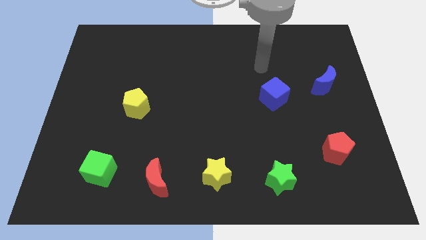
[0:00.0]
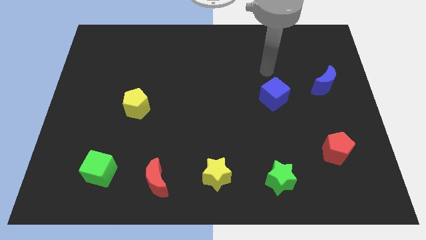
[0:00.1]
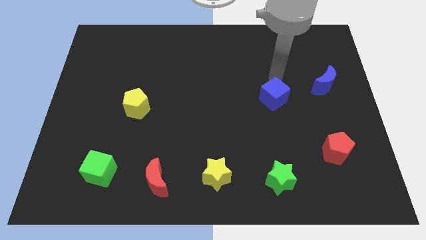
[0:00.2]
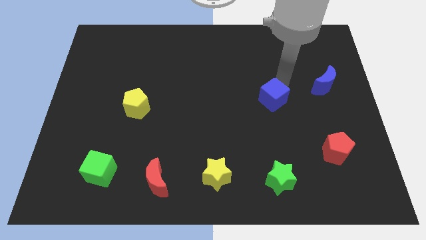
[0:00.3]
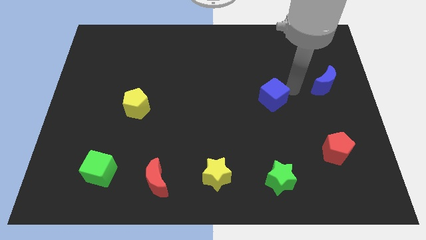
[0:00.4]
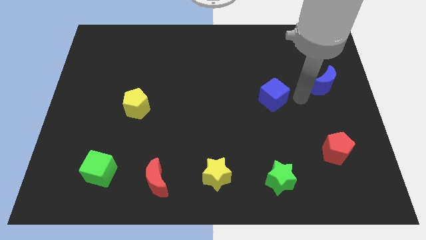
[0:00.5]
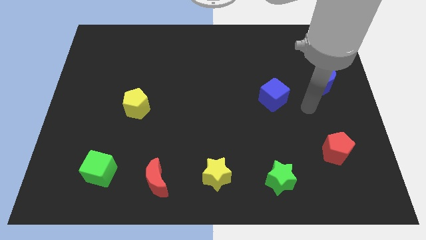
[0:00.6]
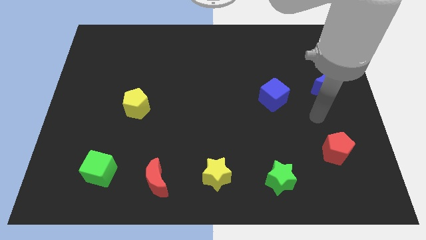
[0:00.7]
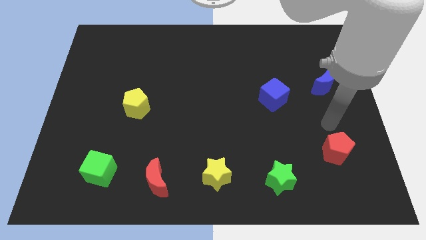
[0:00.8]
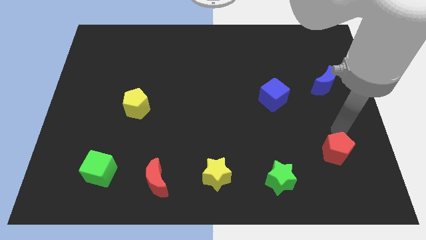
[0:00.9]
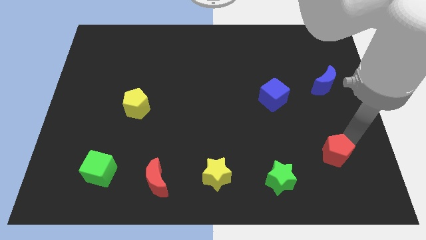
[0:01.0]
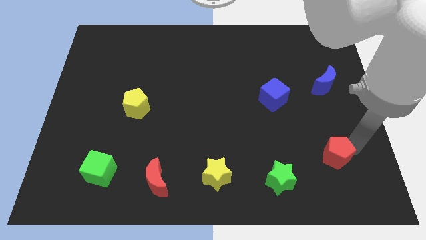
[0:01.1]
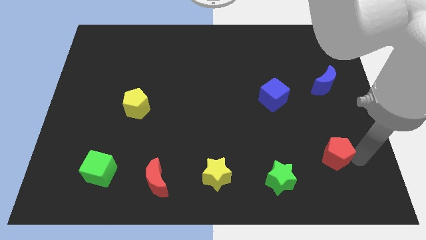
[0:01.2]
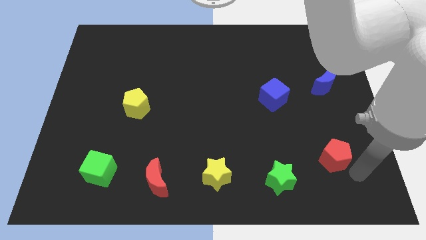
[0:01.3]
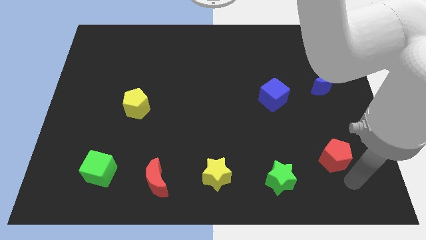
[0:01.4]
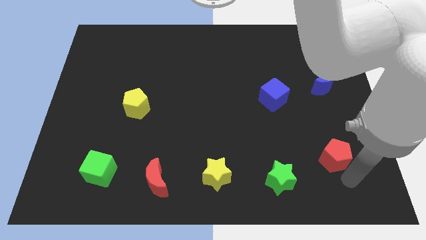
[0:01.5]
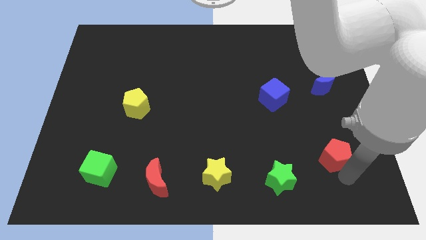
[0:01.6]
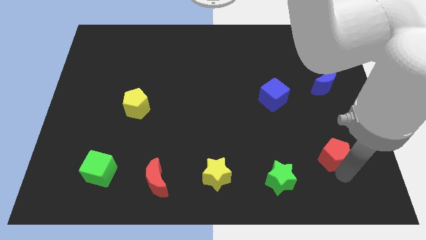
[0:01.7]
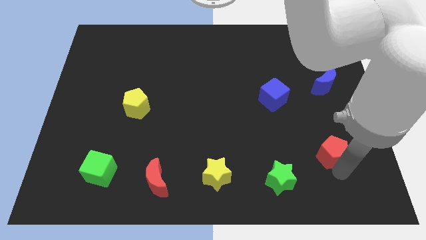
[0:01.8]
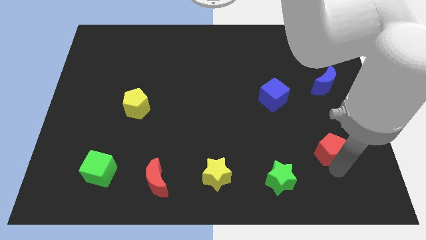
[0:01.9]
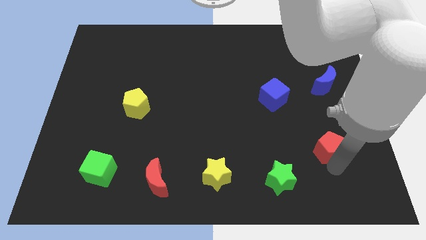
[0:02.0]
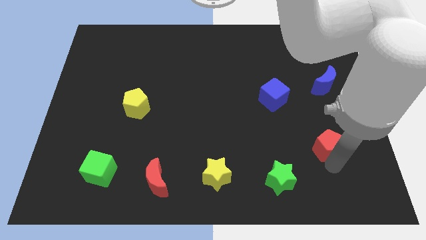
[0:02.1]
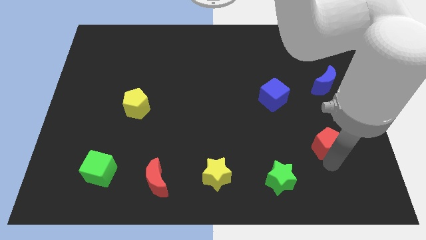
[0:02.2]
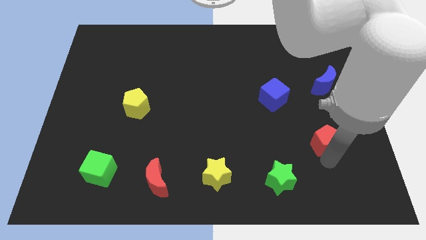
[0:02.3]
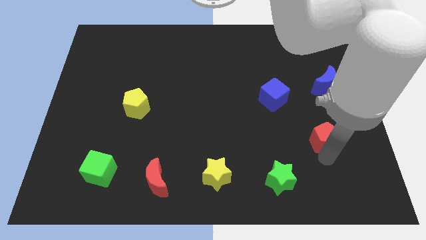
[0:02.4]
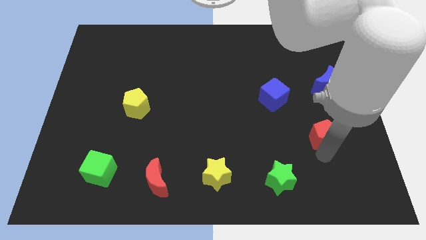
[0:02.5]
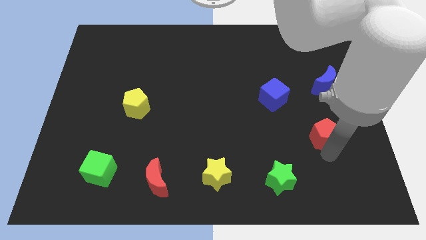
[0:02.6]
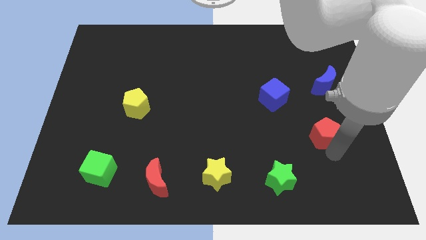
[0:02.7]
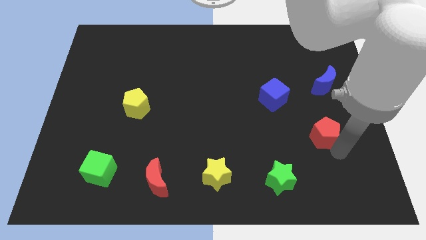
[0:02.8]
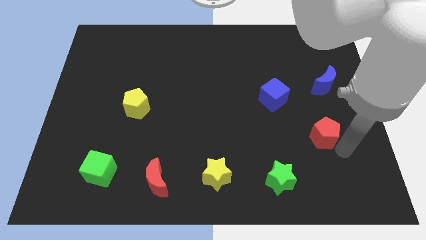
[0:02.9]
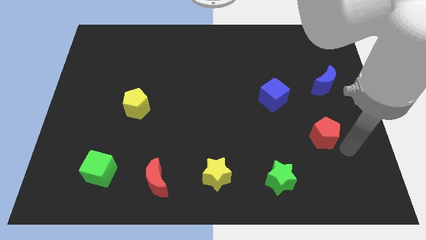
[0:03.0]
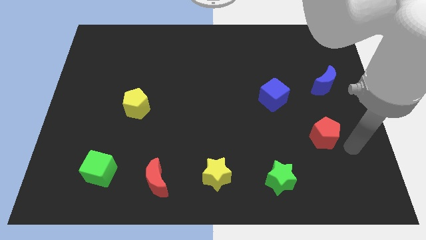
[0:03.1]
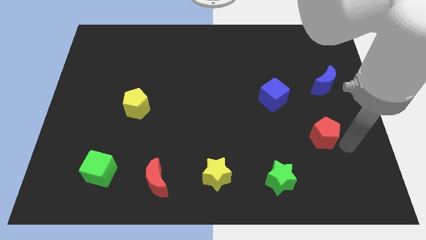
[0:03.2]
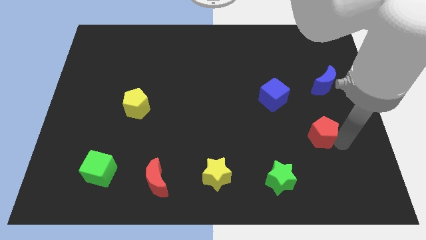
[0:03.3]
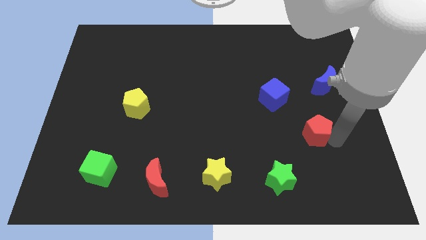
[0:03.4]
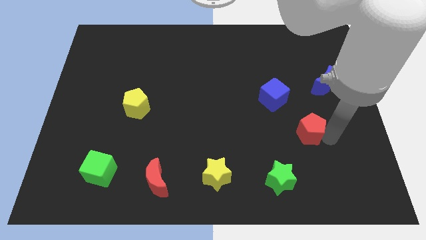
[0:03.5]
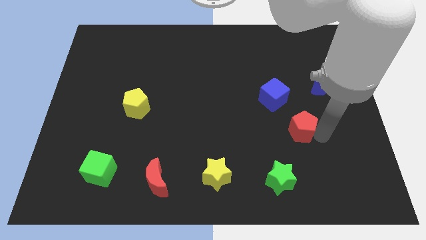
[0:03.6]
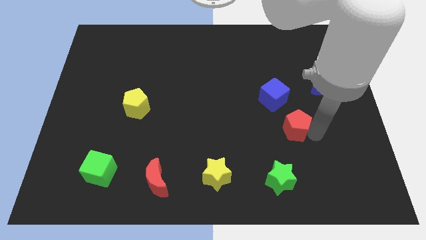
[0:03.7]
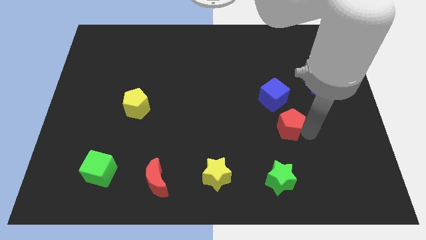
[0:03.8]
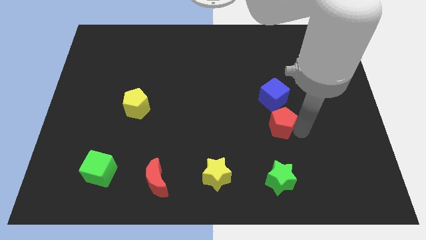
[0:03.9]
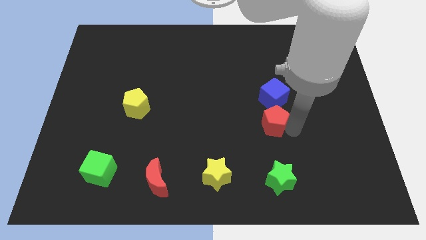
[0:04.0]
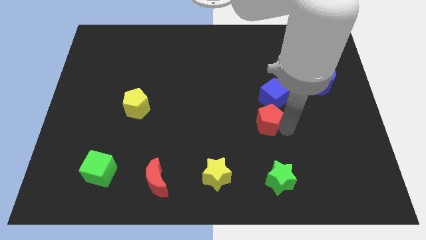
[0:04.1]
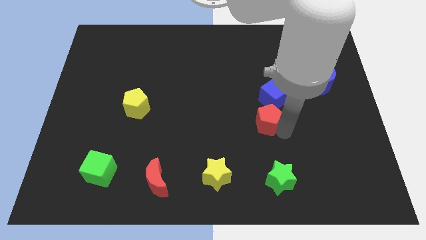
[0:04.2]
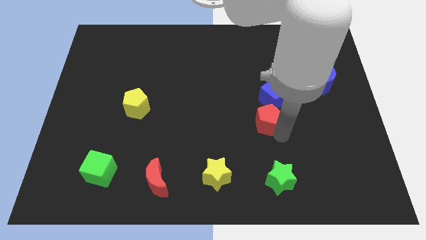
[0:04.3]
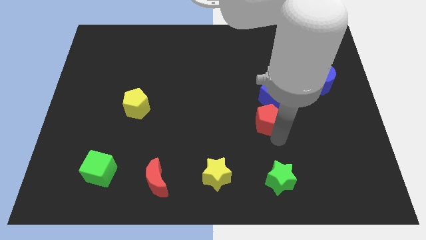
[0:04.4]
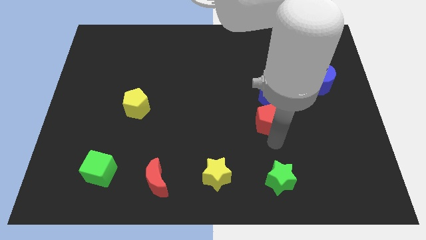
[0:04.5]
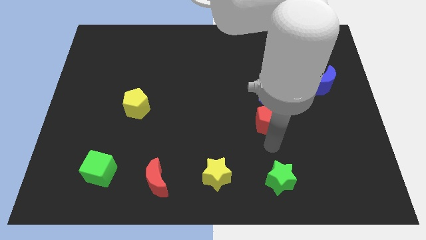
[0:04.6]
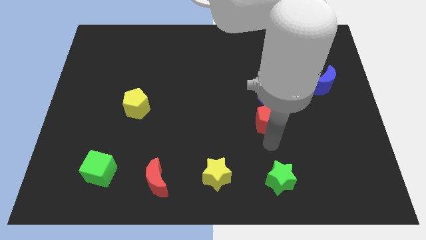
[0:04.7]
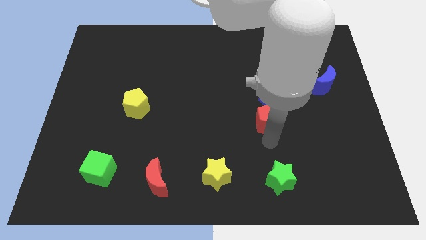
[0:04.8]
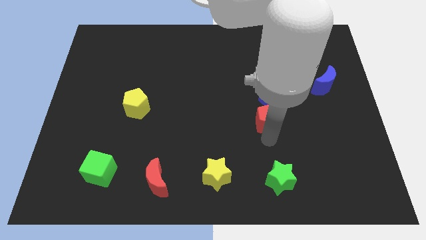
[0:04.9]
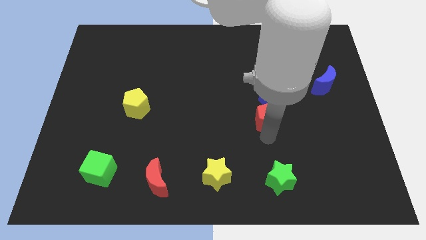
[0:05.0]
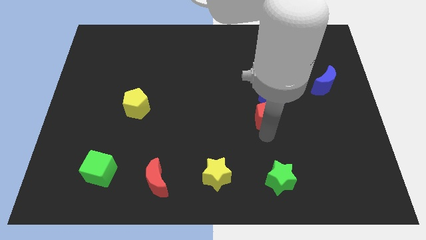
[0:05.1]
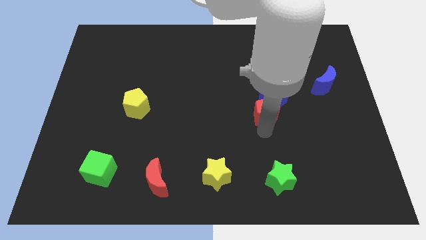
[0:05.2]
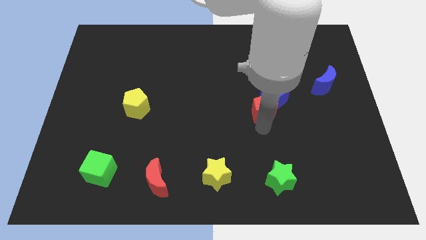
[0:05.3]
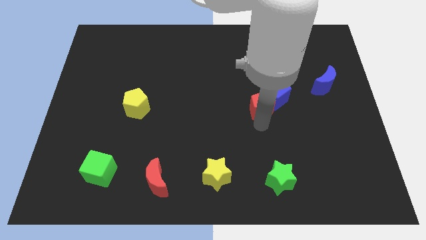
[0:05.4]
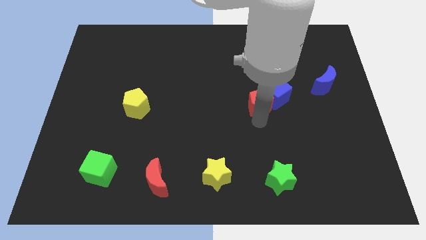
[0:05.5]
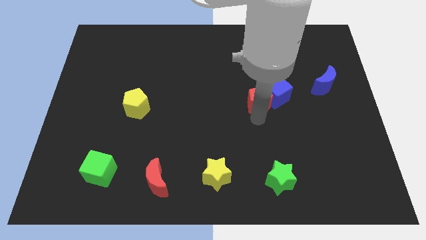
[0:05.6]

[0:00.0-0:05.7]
push the red pentagon upwards and left

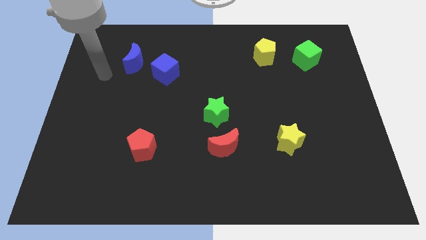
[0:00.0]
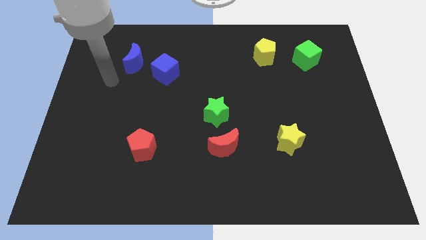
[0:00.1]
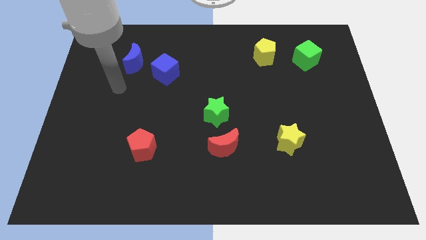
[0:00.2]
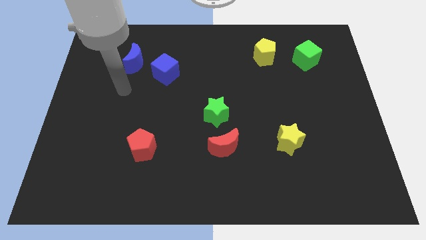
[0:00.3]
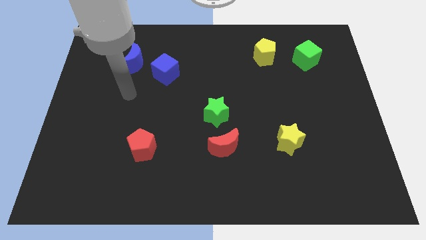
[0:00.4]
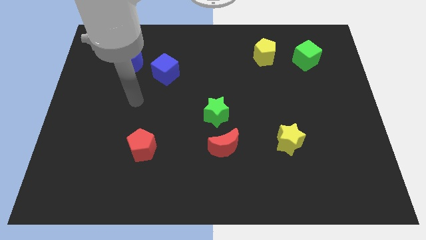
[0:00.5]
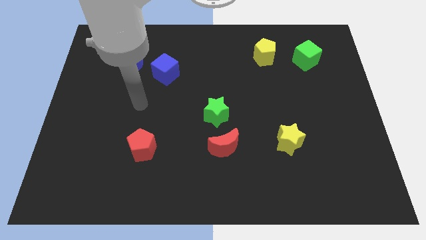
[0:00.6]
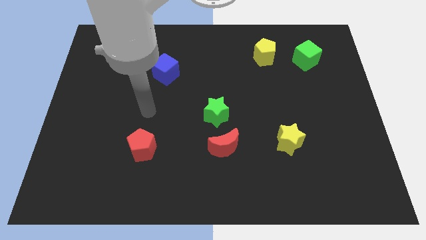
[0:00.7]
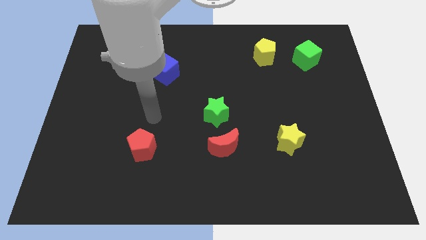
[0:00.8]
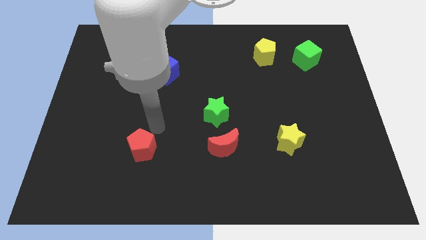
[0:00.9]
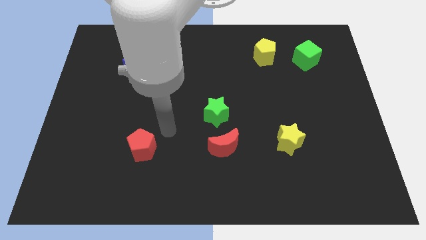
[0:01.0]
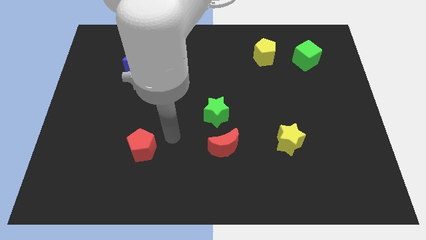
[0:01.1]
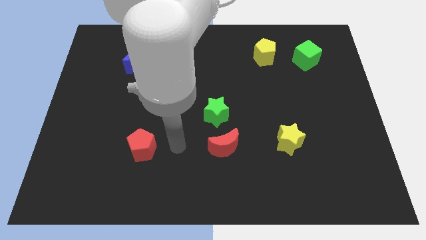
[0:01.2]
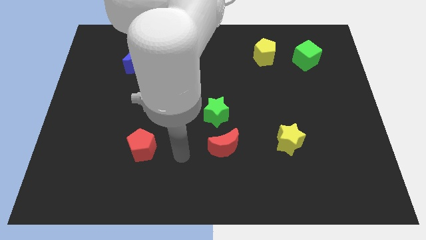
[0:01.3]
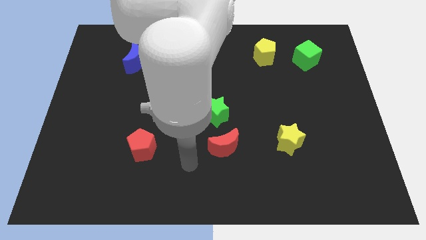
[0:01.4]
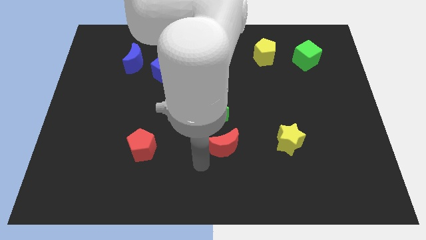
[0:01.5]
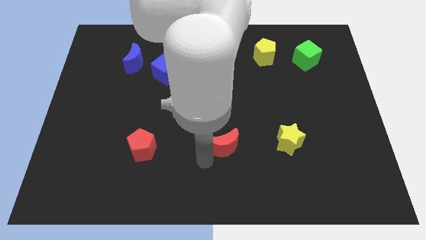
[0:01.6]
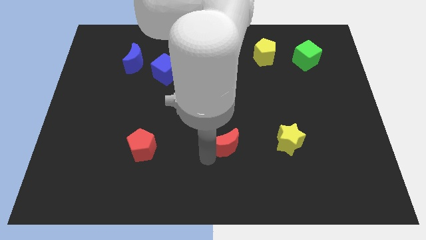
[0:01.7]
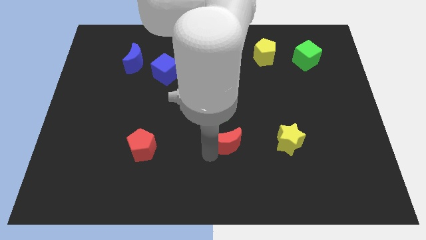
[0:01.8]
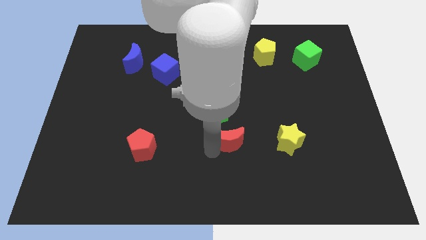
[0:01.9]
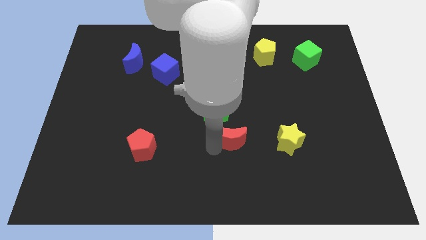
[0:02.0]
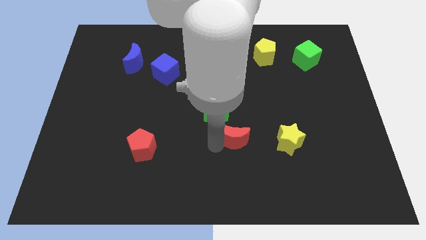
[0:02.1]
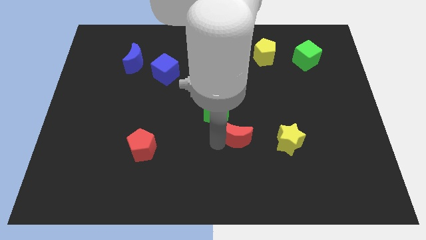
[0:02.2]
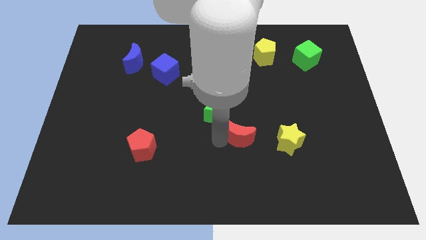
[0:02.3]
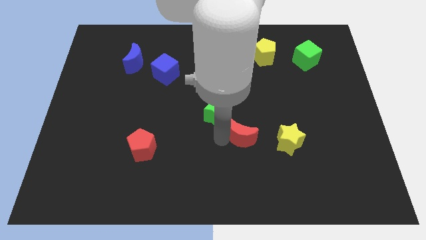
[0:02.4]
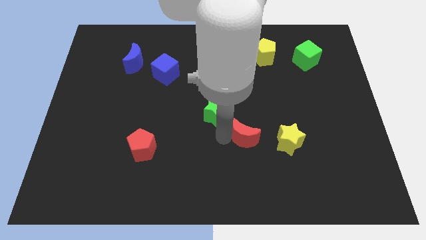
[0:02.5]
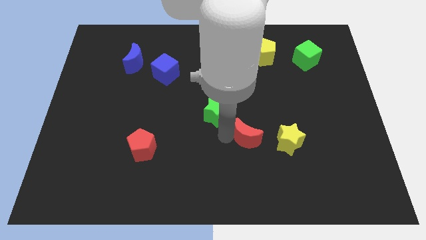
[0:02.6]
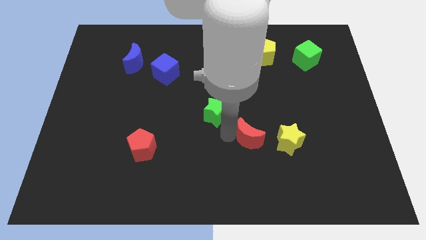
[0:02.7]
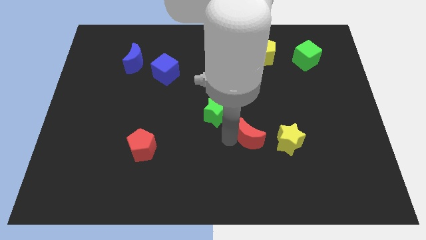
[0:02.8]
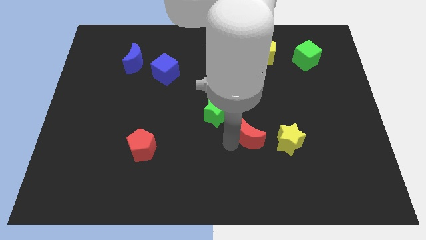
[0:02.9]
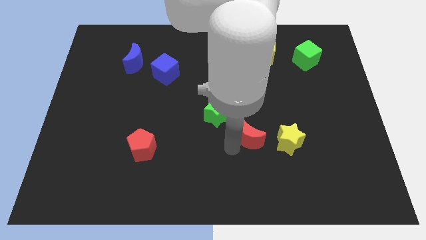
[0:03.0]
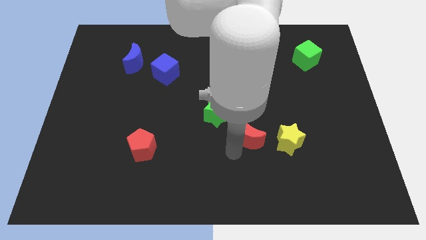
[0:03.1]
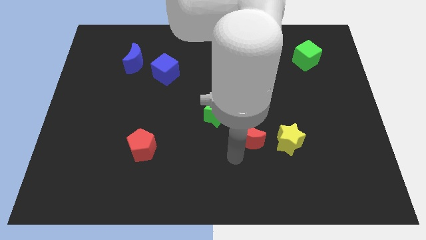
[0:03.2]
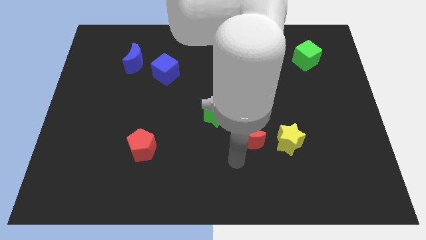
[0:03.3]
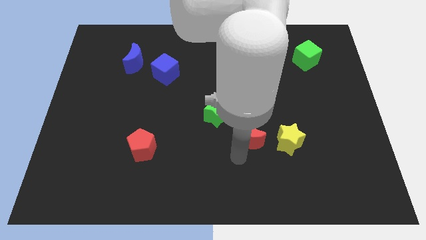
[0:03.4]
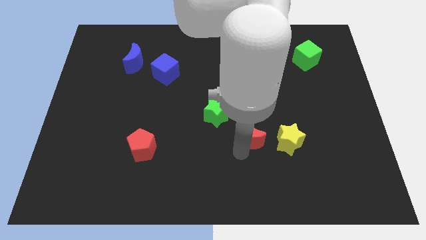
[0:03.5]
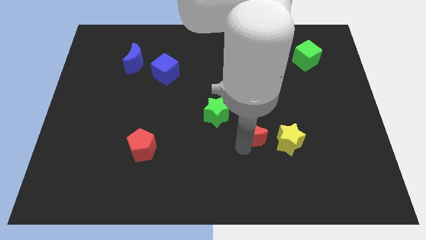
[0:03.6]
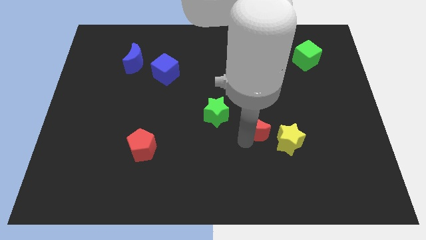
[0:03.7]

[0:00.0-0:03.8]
slightly move the red moon upwards and then right
